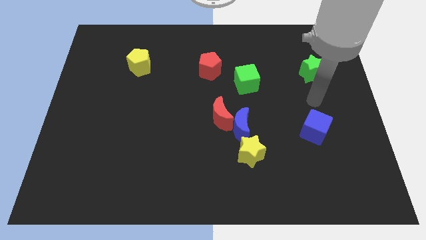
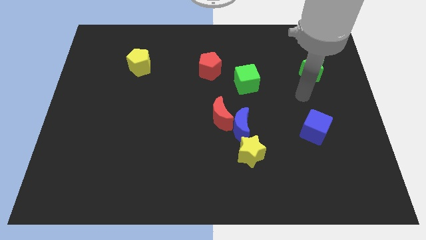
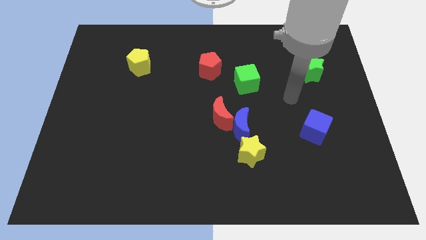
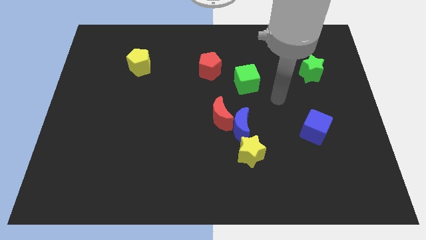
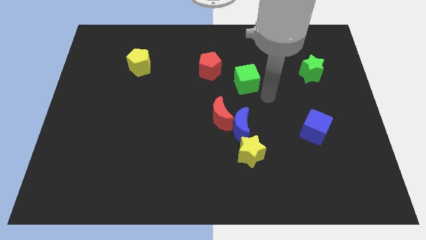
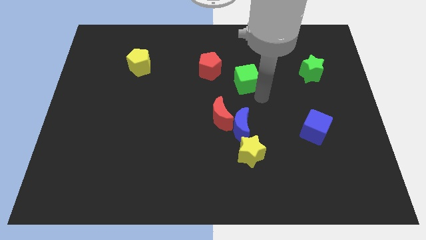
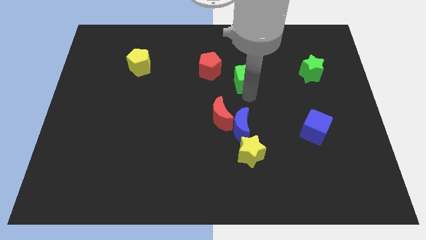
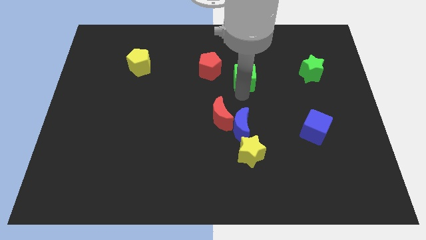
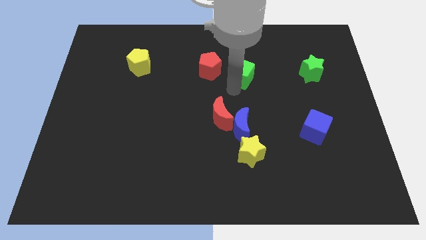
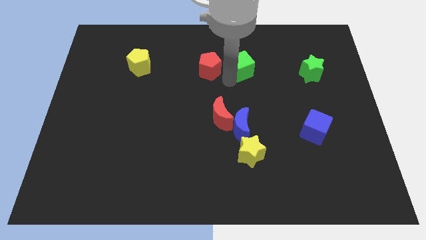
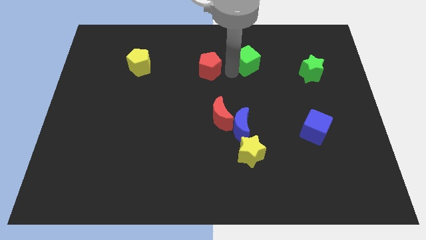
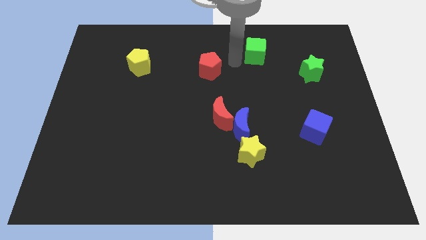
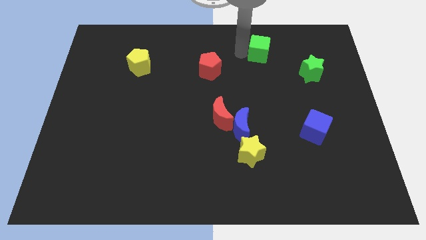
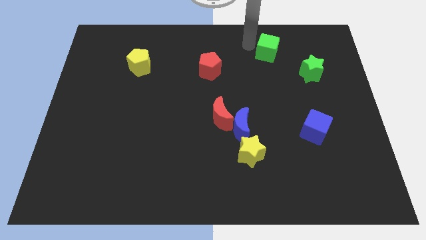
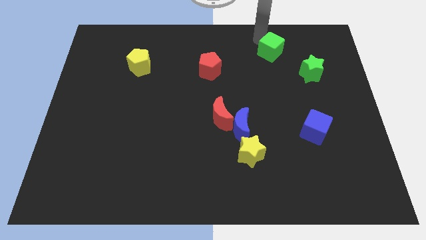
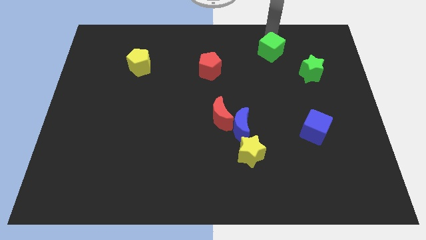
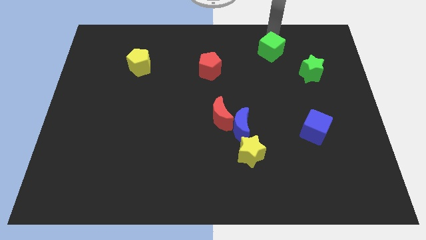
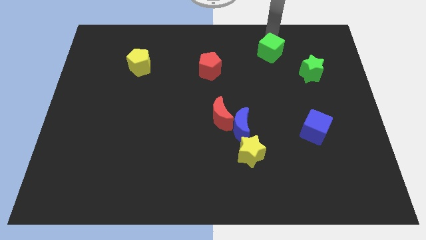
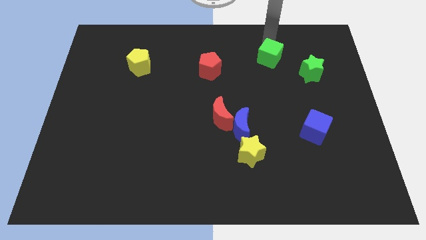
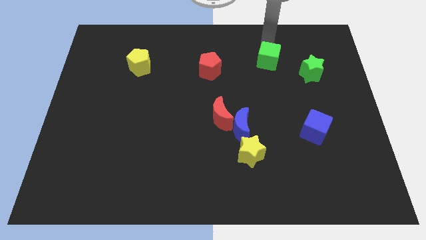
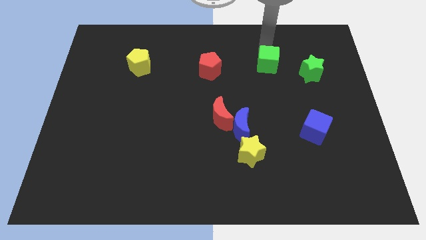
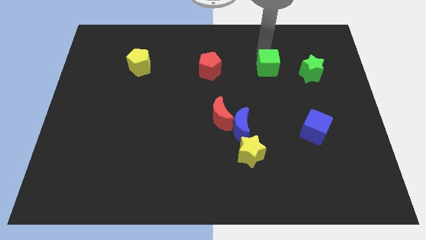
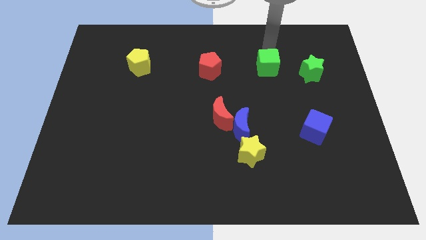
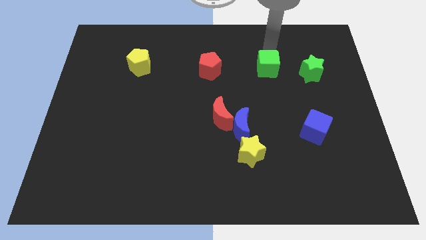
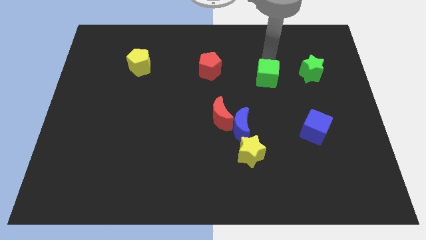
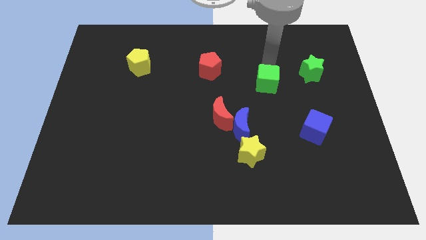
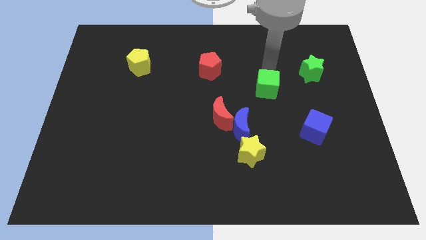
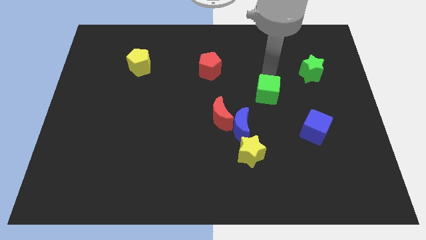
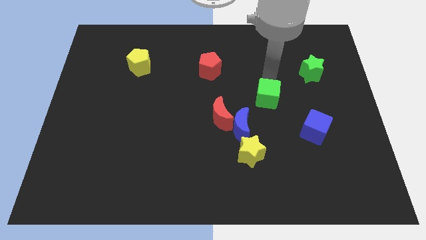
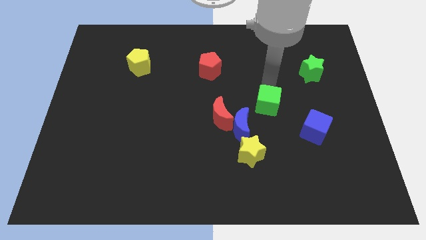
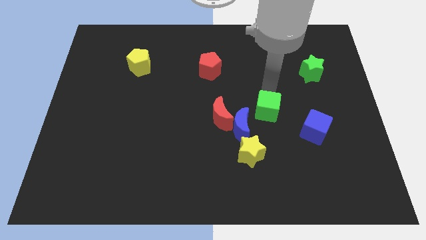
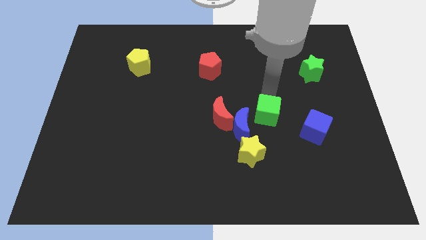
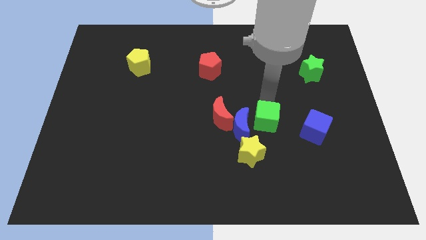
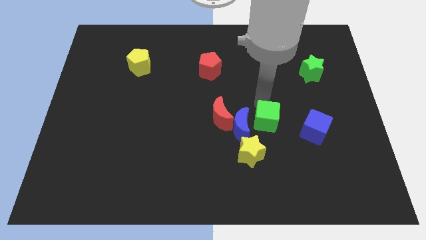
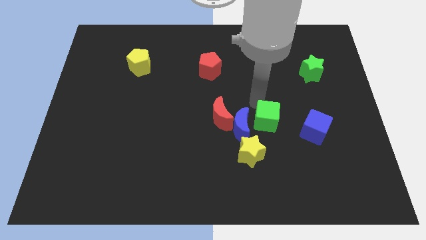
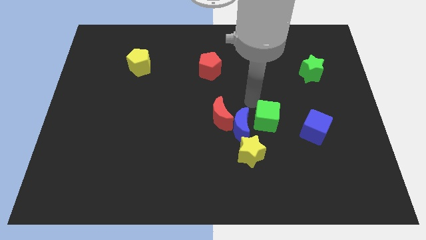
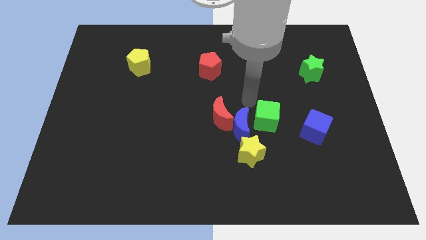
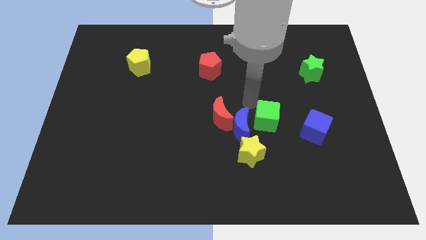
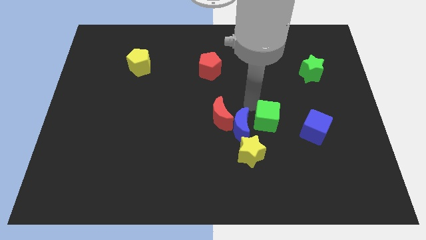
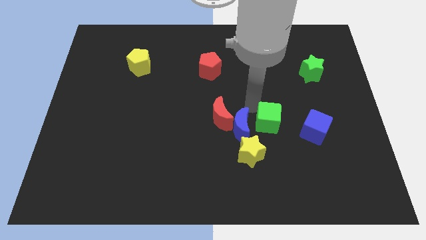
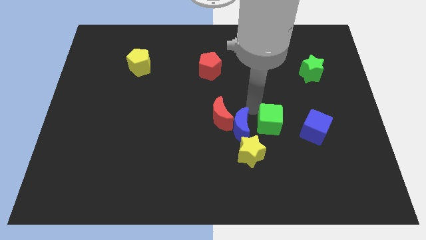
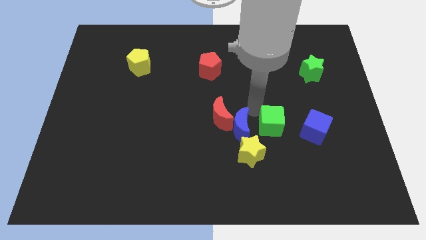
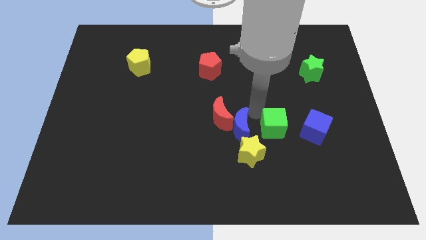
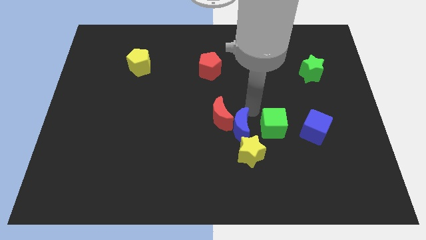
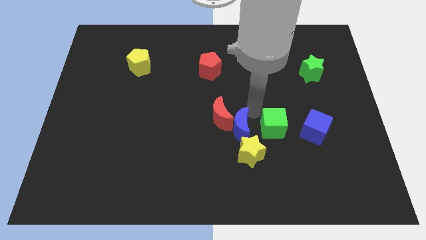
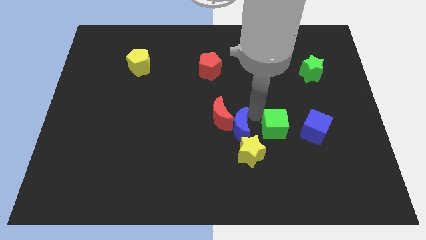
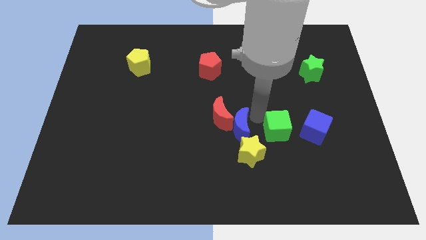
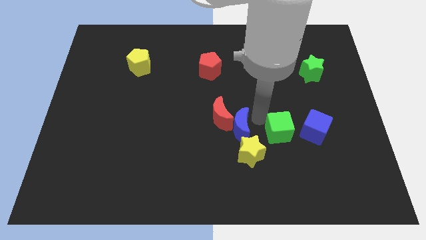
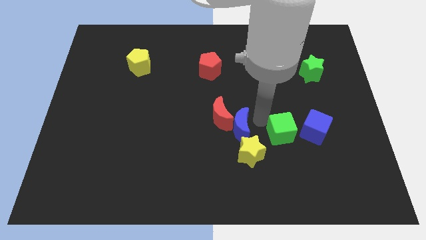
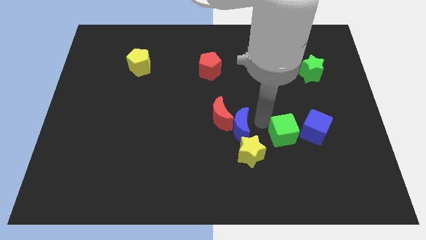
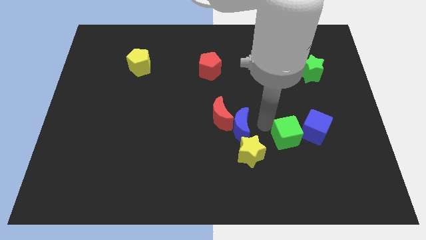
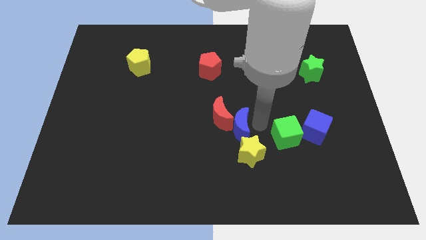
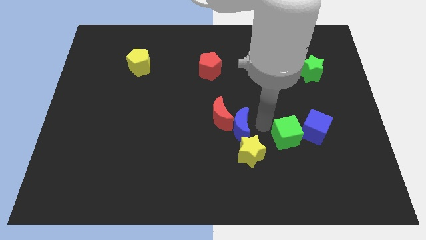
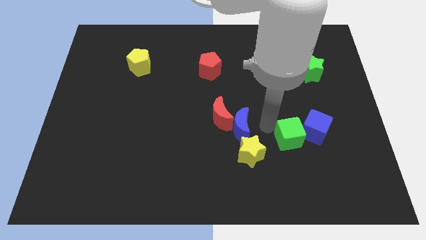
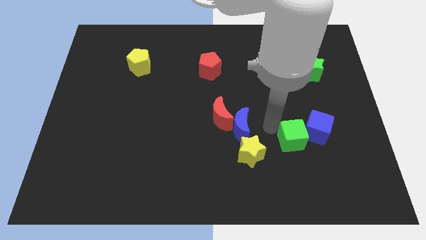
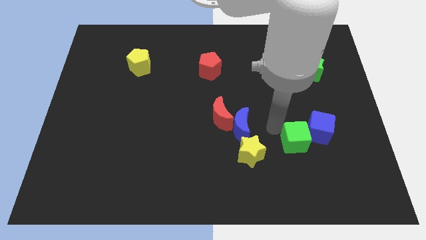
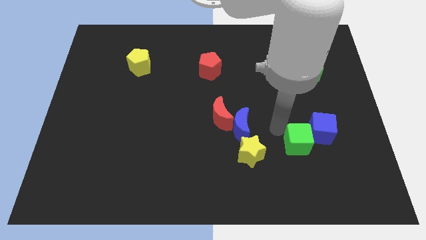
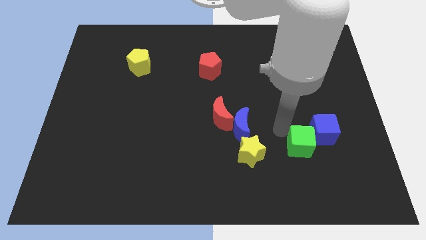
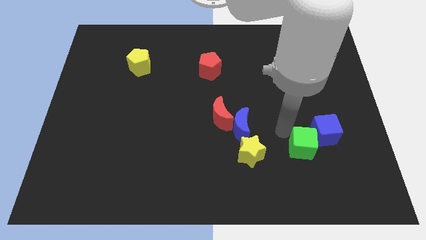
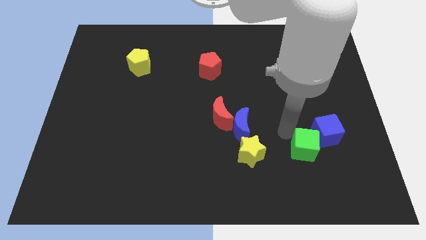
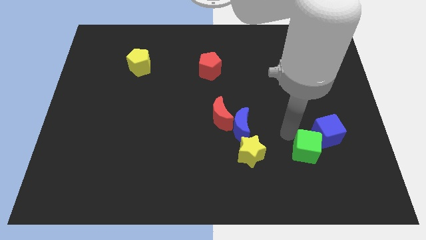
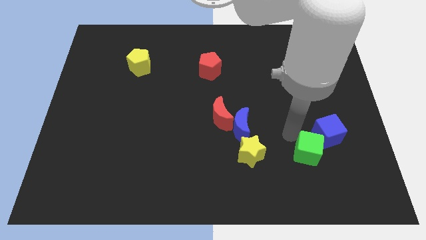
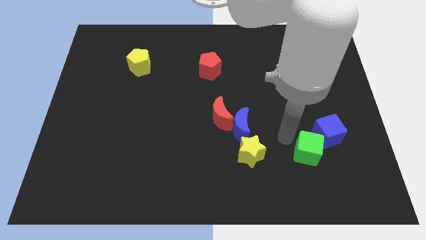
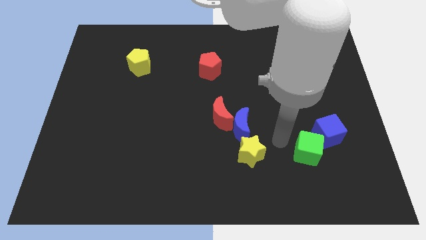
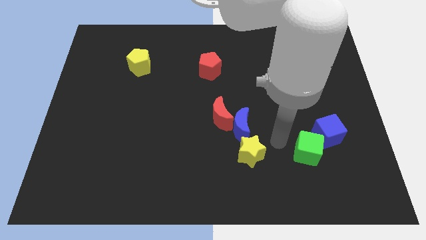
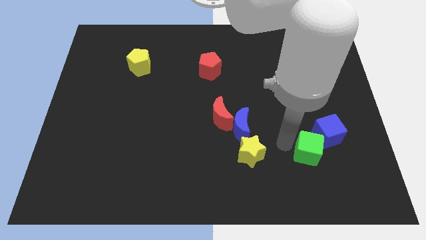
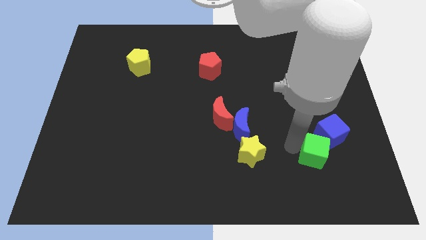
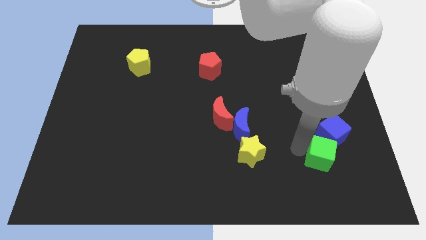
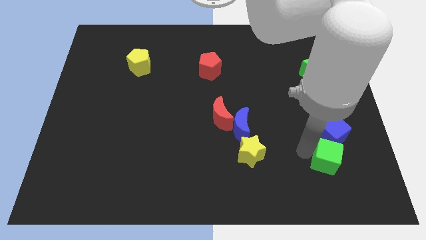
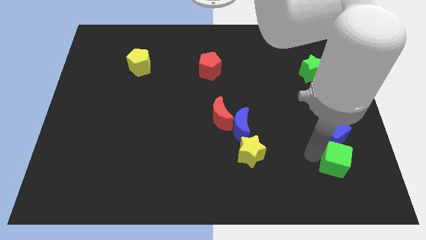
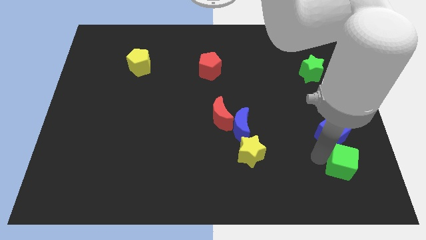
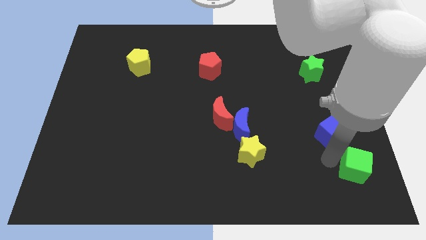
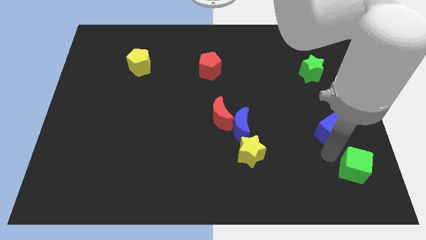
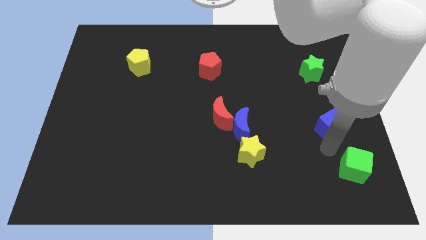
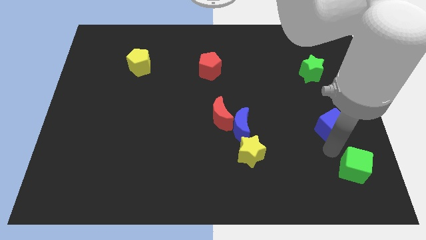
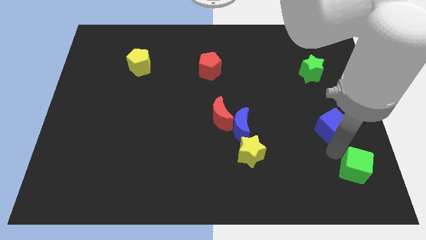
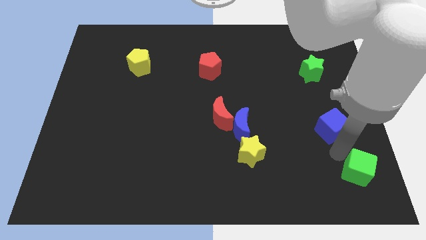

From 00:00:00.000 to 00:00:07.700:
push the green cube to the bottom right of the board
